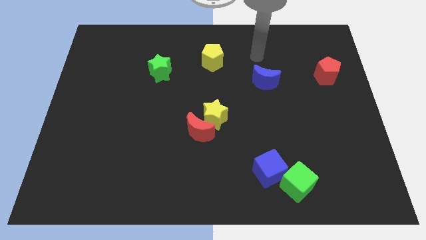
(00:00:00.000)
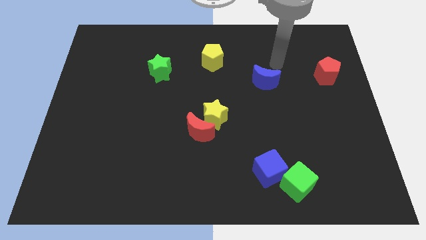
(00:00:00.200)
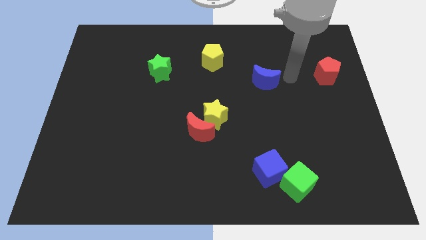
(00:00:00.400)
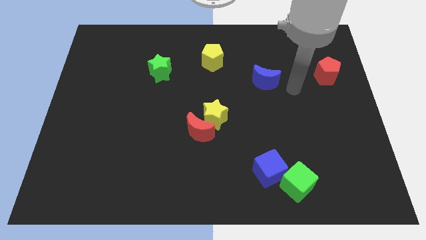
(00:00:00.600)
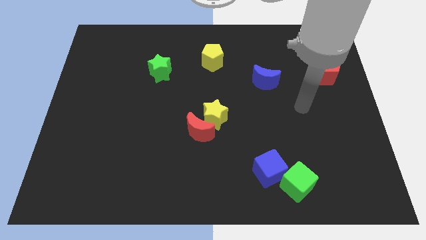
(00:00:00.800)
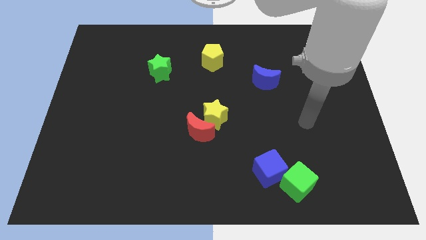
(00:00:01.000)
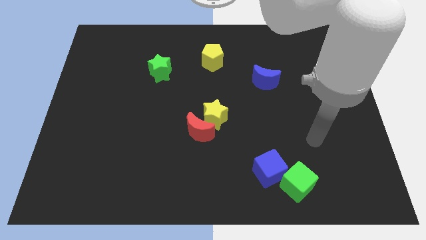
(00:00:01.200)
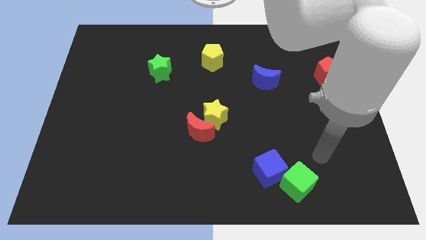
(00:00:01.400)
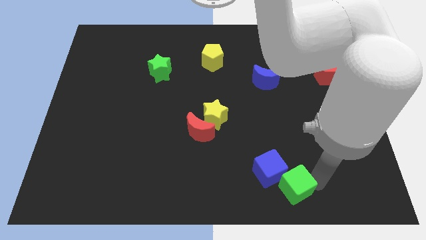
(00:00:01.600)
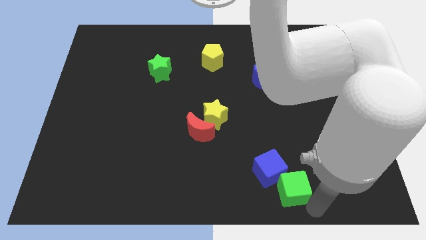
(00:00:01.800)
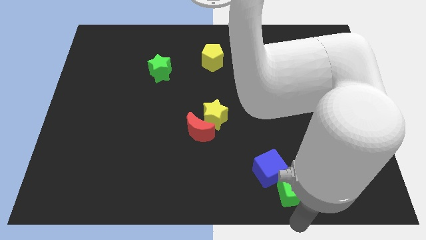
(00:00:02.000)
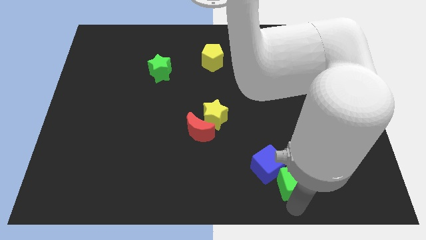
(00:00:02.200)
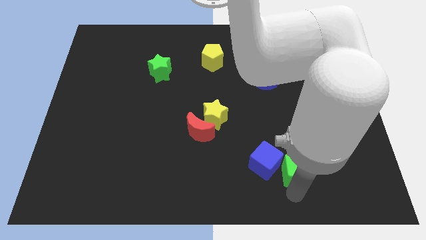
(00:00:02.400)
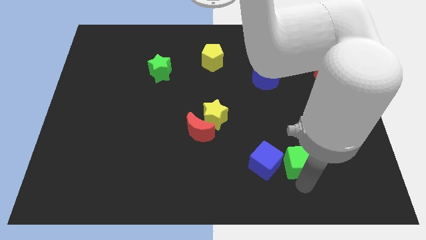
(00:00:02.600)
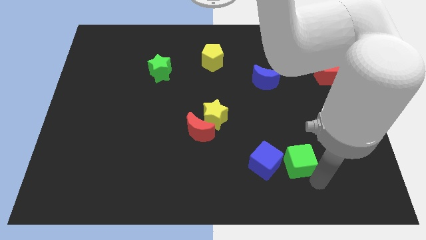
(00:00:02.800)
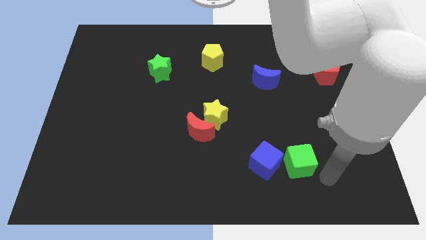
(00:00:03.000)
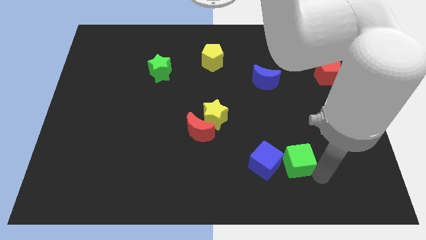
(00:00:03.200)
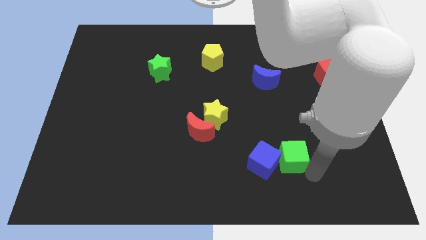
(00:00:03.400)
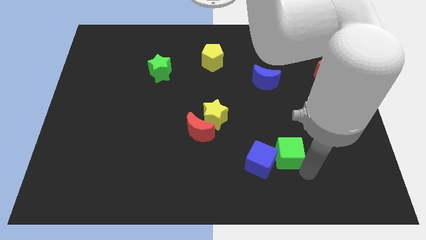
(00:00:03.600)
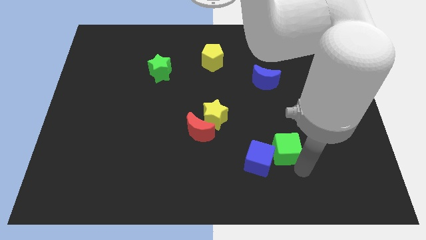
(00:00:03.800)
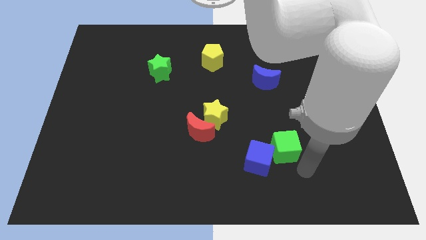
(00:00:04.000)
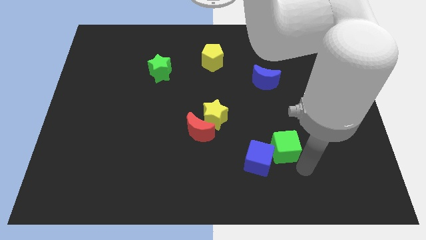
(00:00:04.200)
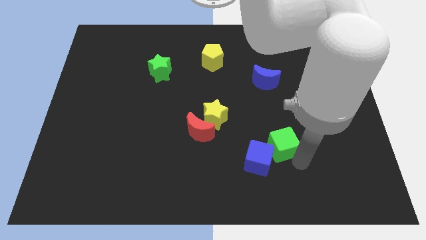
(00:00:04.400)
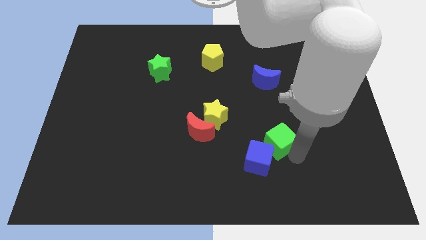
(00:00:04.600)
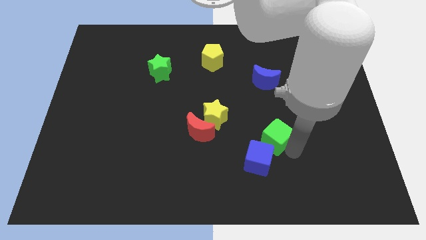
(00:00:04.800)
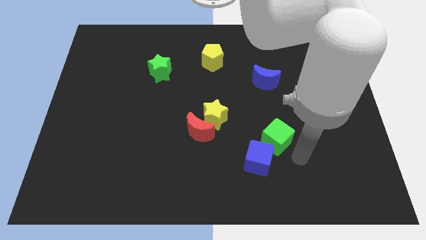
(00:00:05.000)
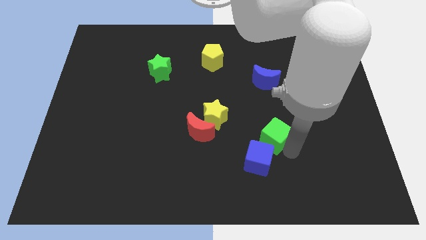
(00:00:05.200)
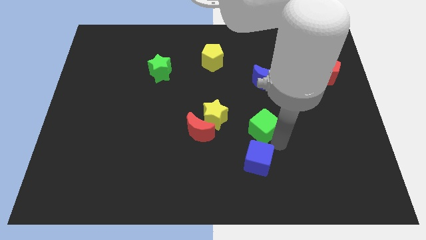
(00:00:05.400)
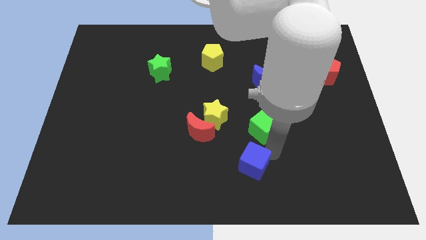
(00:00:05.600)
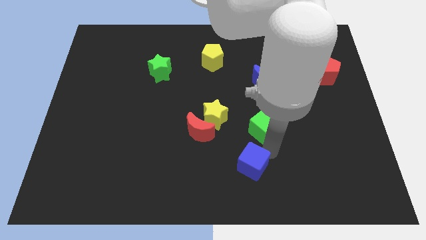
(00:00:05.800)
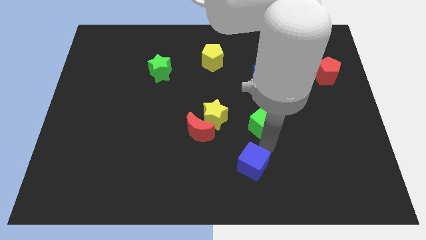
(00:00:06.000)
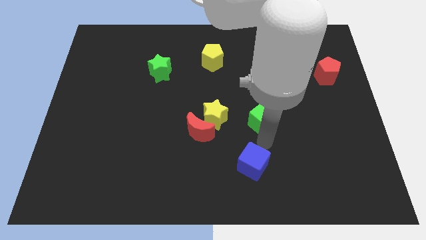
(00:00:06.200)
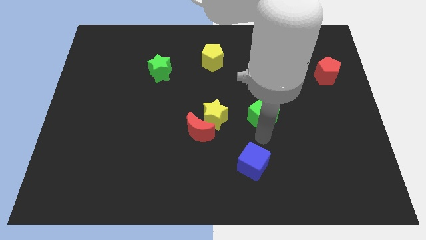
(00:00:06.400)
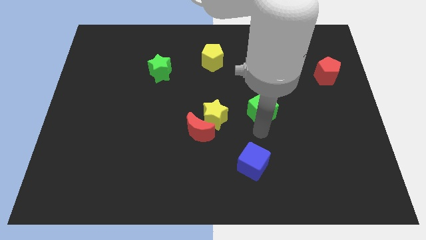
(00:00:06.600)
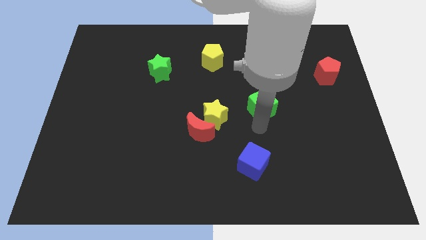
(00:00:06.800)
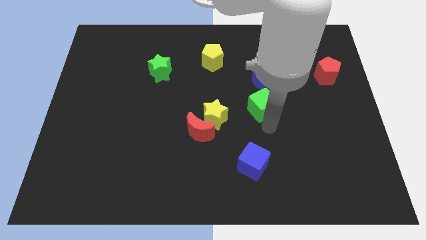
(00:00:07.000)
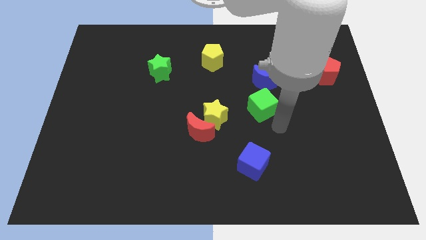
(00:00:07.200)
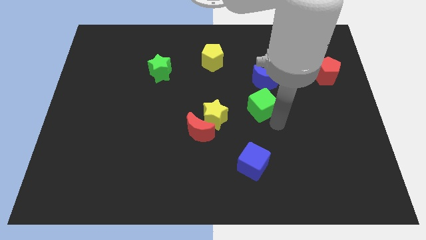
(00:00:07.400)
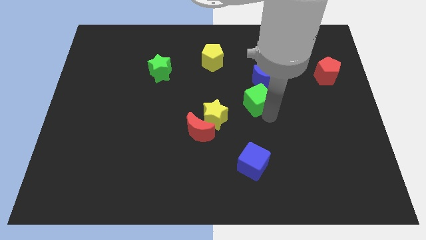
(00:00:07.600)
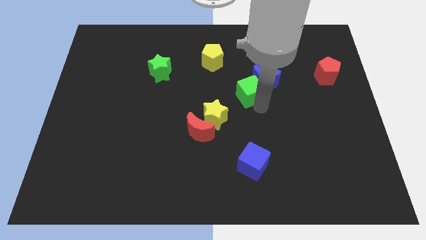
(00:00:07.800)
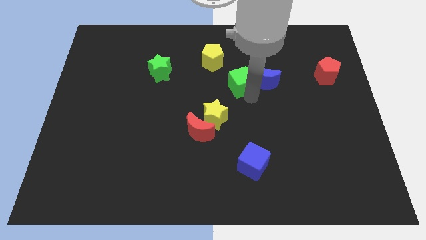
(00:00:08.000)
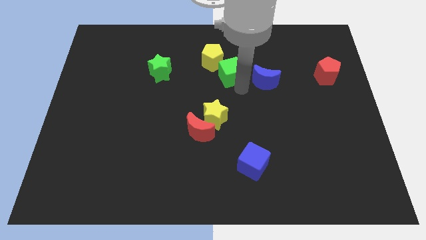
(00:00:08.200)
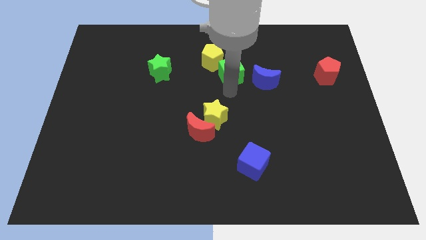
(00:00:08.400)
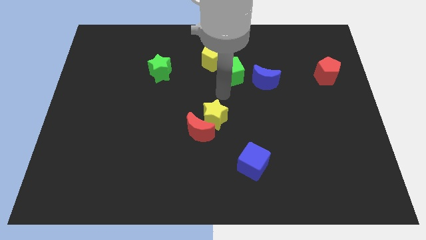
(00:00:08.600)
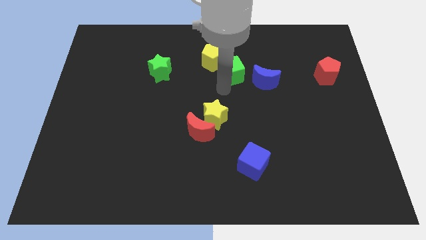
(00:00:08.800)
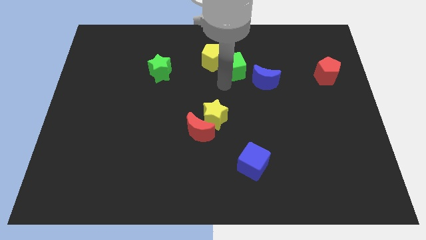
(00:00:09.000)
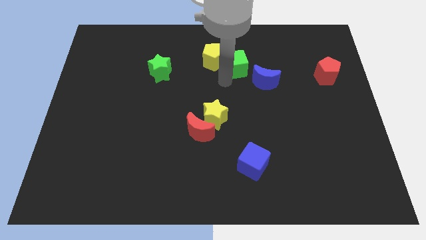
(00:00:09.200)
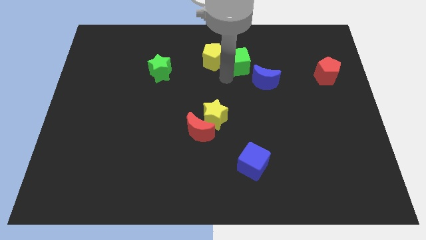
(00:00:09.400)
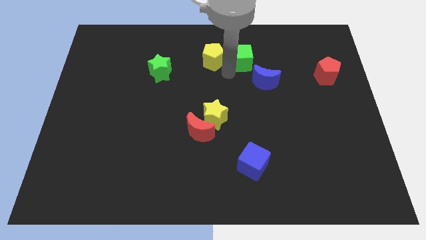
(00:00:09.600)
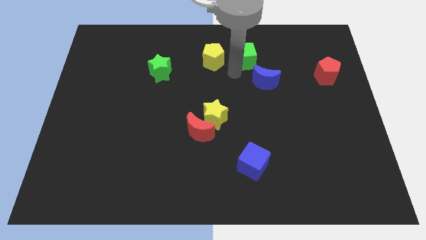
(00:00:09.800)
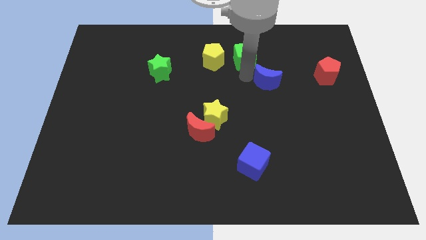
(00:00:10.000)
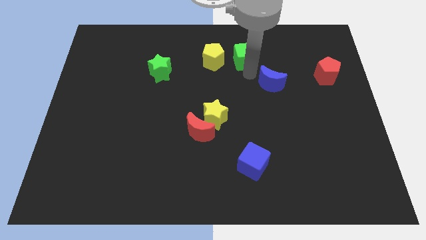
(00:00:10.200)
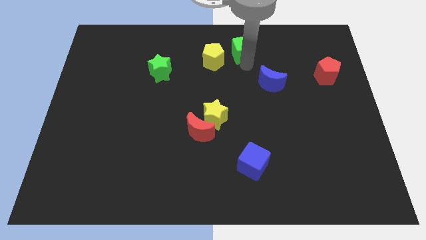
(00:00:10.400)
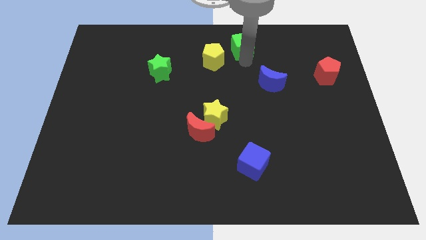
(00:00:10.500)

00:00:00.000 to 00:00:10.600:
slide the green cube to the top side
